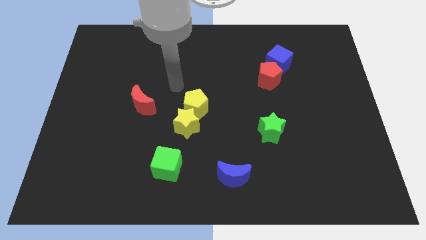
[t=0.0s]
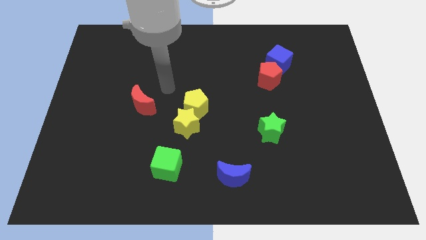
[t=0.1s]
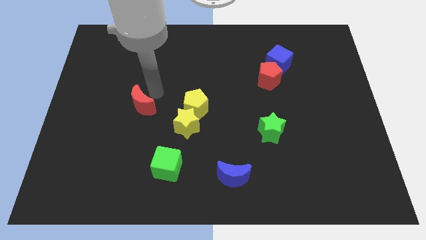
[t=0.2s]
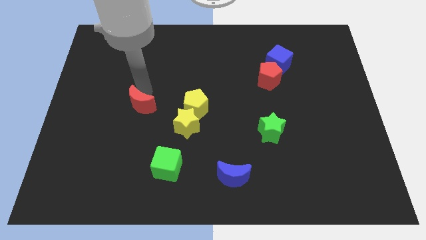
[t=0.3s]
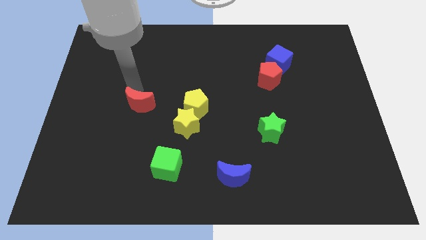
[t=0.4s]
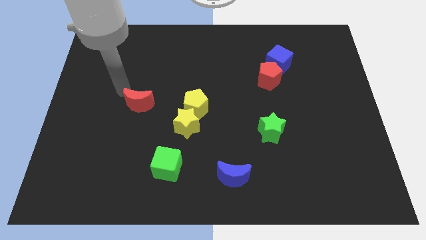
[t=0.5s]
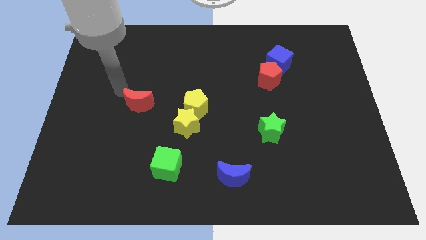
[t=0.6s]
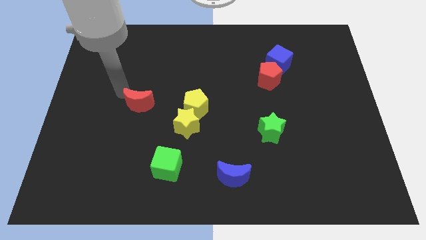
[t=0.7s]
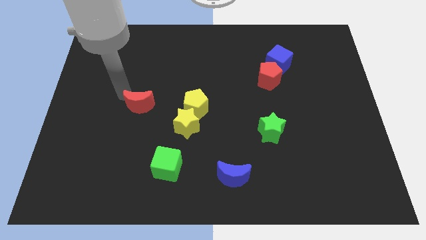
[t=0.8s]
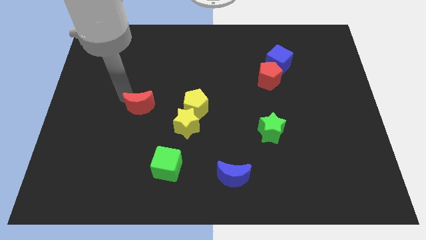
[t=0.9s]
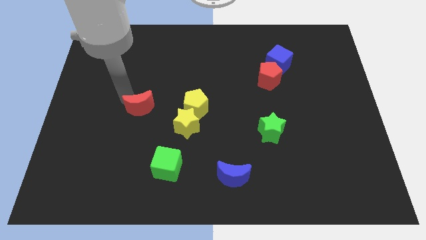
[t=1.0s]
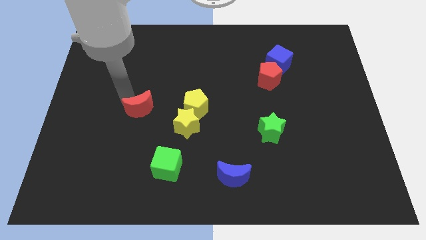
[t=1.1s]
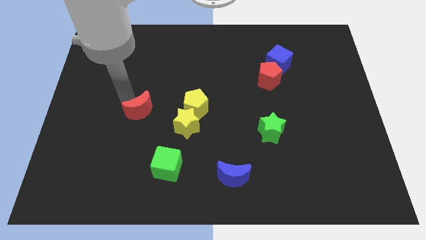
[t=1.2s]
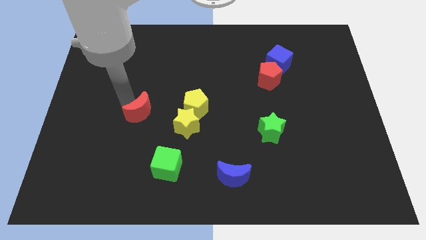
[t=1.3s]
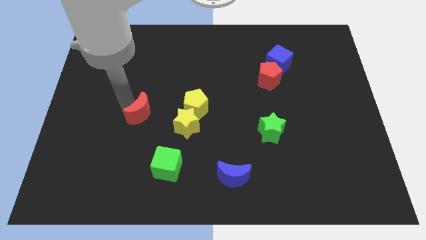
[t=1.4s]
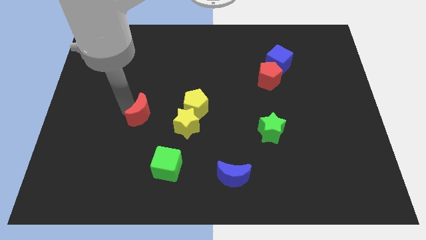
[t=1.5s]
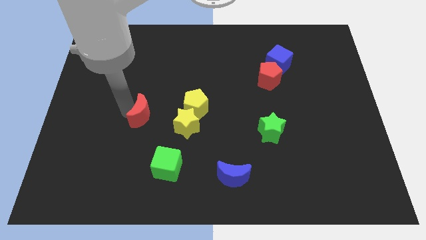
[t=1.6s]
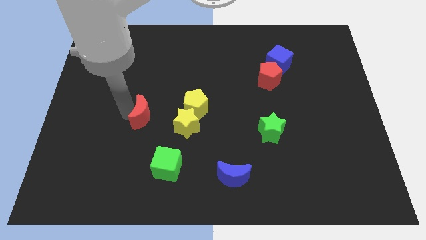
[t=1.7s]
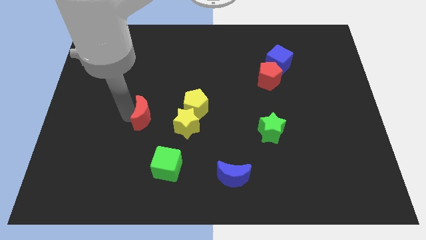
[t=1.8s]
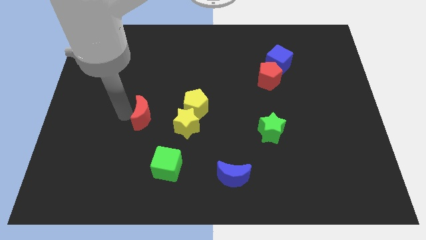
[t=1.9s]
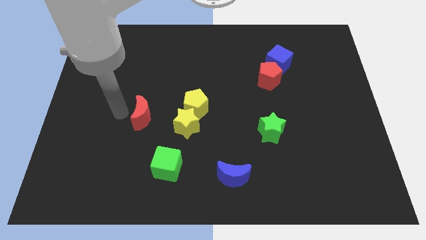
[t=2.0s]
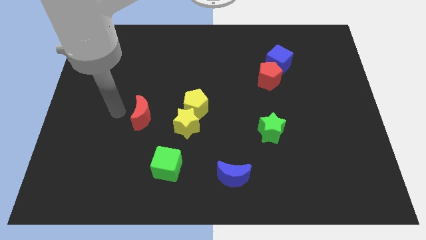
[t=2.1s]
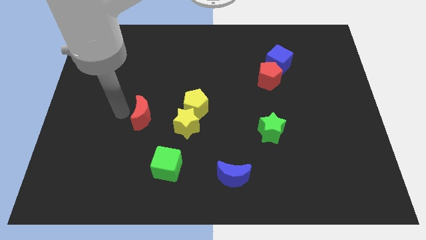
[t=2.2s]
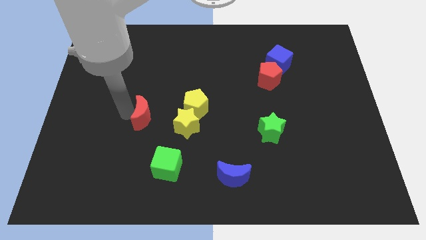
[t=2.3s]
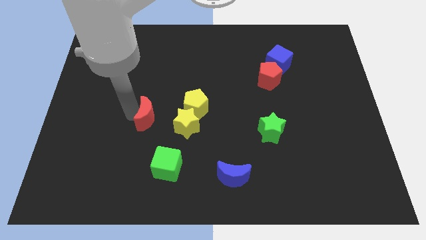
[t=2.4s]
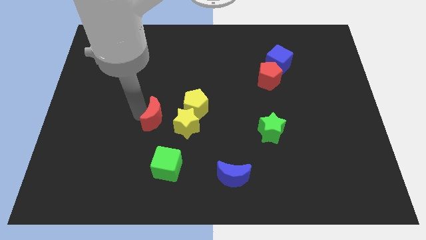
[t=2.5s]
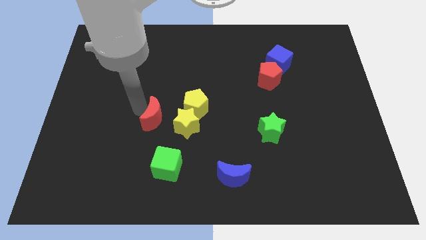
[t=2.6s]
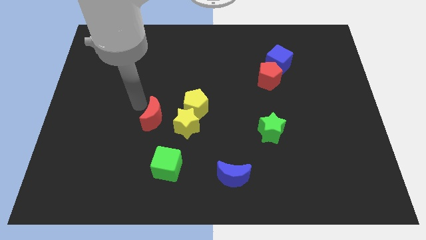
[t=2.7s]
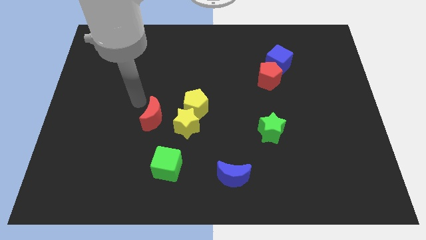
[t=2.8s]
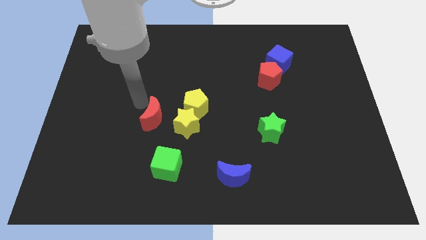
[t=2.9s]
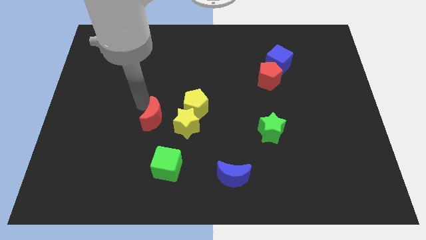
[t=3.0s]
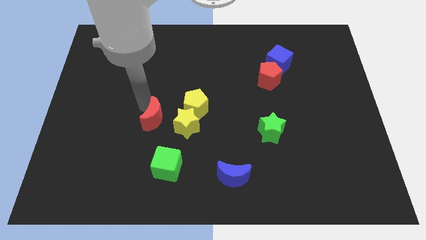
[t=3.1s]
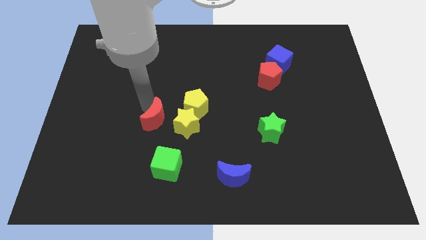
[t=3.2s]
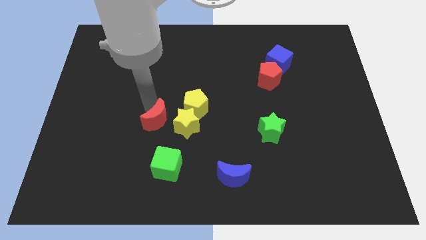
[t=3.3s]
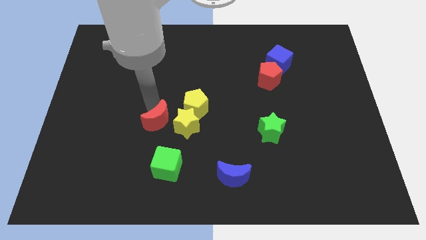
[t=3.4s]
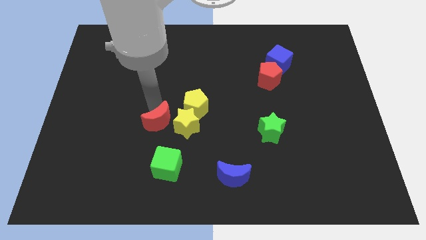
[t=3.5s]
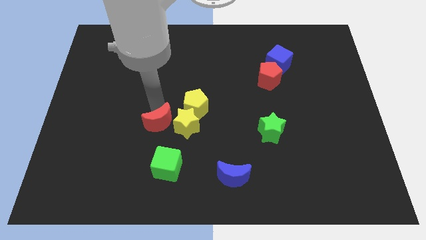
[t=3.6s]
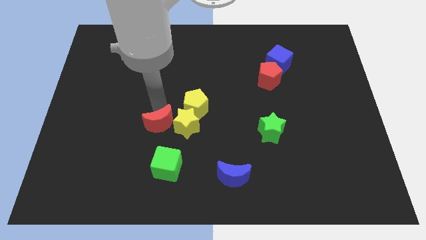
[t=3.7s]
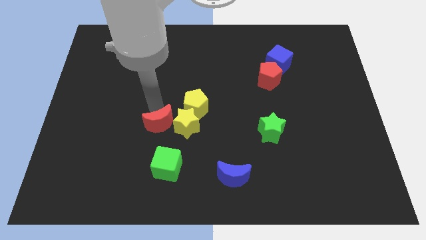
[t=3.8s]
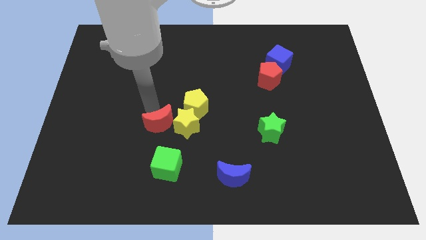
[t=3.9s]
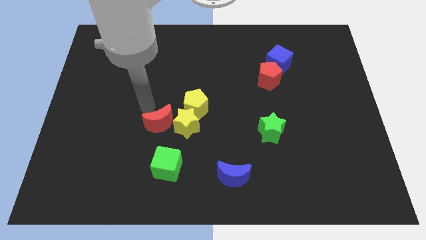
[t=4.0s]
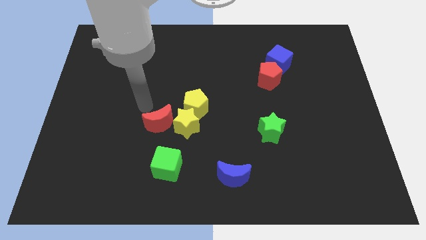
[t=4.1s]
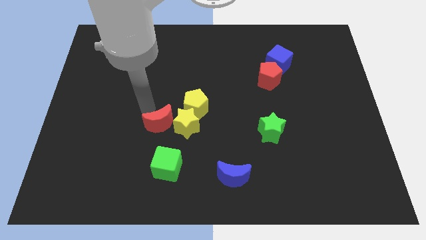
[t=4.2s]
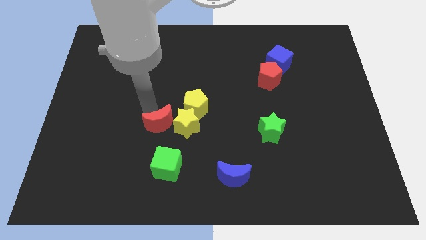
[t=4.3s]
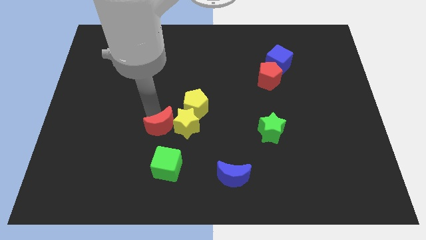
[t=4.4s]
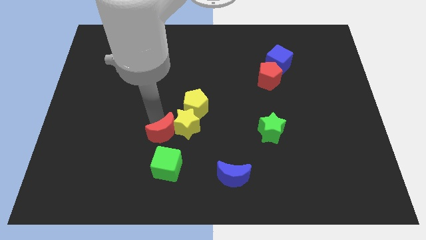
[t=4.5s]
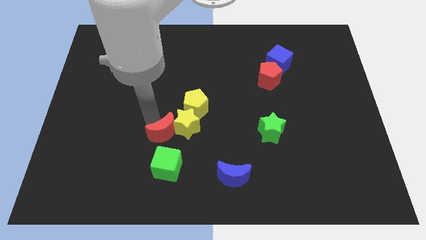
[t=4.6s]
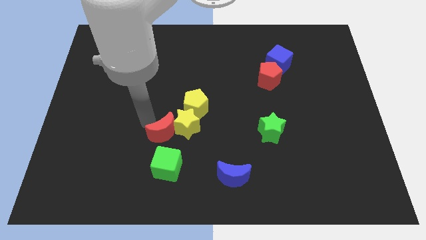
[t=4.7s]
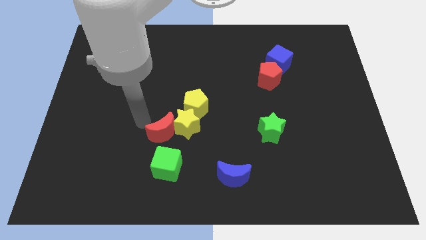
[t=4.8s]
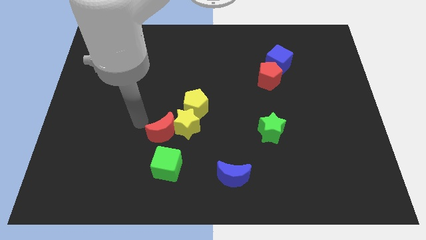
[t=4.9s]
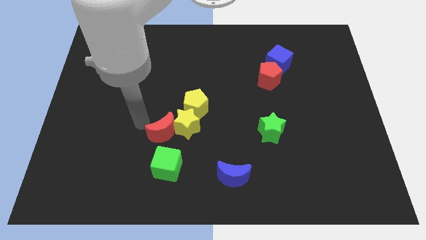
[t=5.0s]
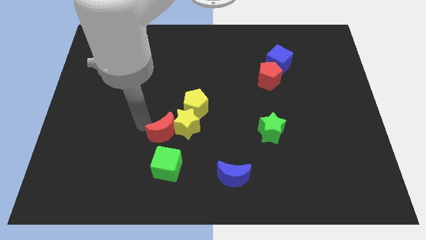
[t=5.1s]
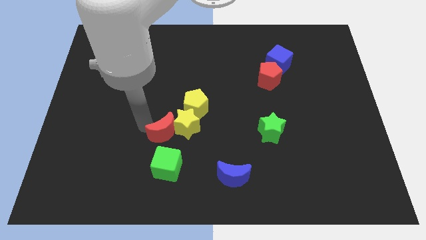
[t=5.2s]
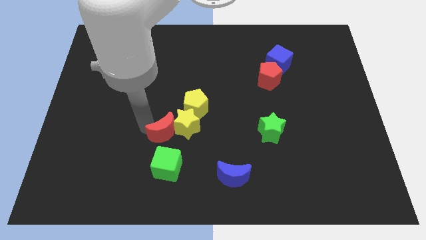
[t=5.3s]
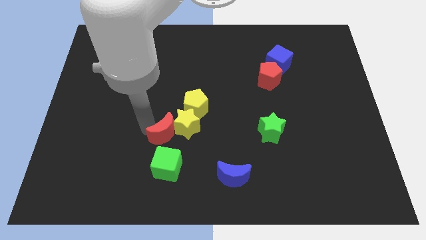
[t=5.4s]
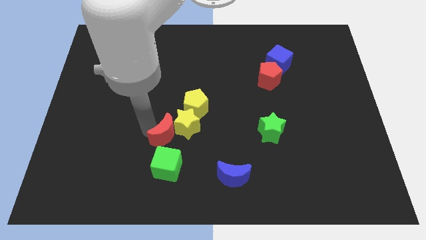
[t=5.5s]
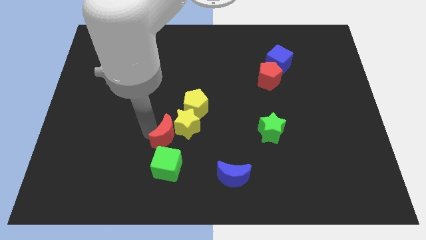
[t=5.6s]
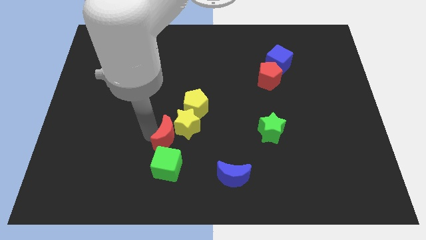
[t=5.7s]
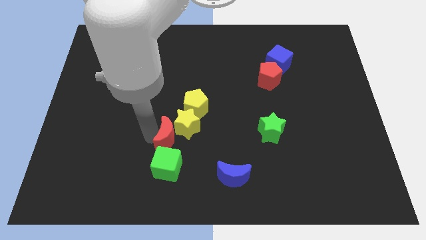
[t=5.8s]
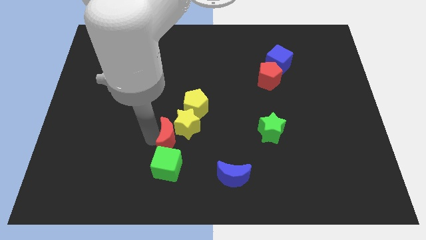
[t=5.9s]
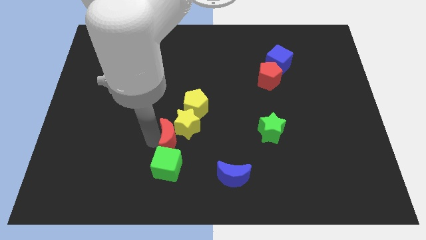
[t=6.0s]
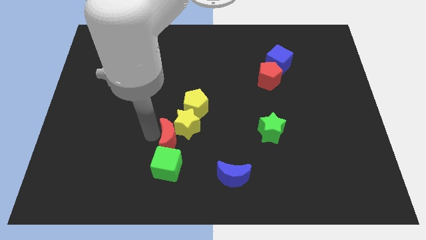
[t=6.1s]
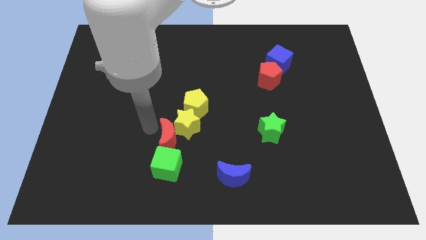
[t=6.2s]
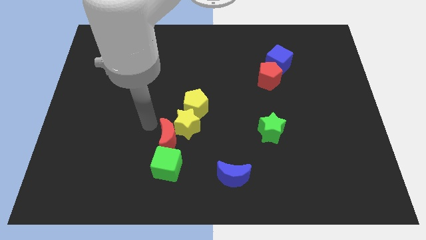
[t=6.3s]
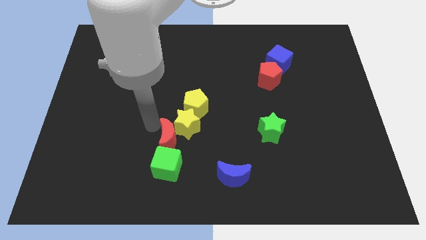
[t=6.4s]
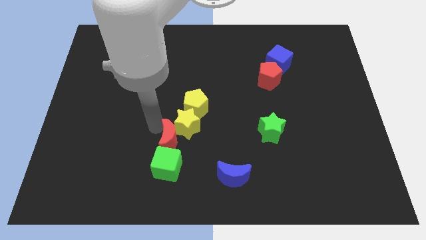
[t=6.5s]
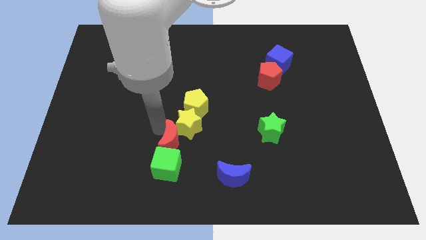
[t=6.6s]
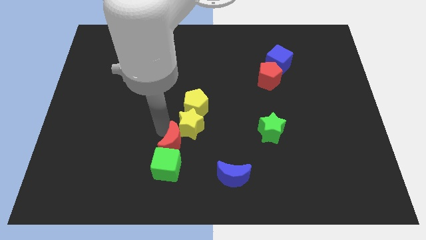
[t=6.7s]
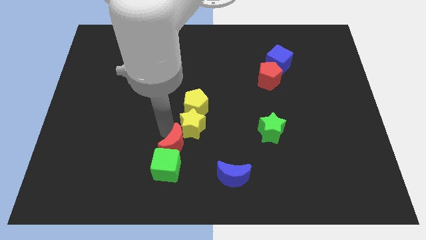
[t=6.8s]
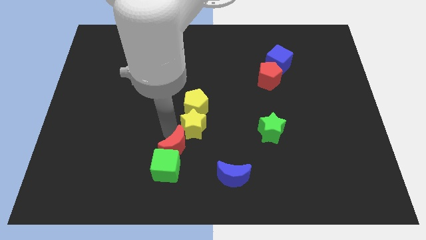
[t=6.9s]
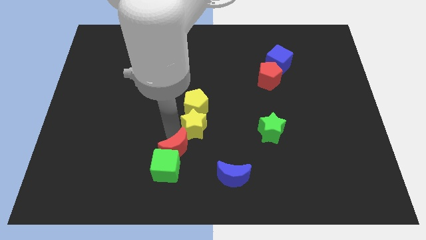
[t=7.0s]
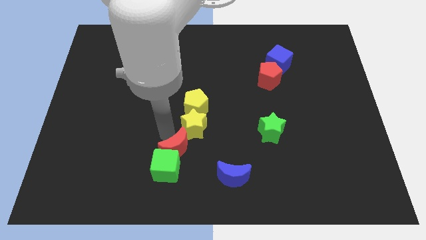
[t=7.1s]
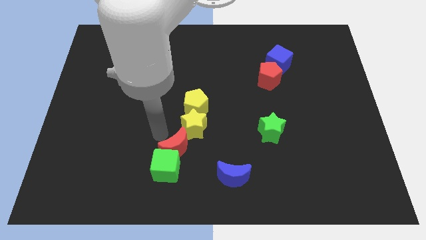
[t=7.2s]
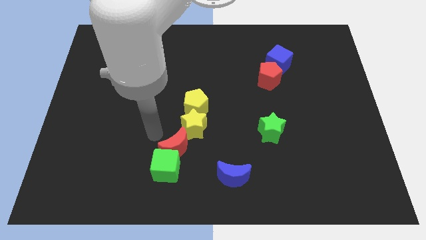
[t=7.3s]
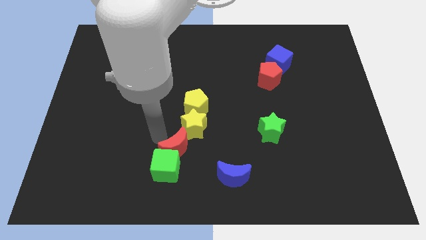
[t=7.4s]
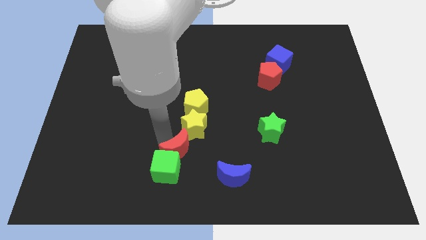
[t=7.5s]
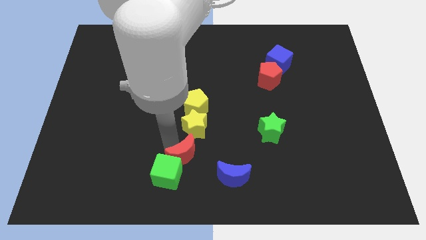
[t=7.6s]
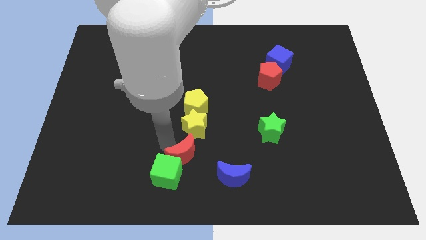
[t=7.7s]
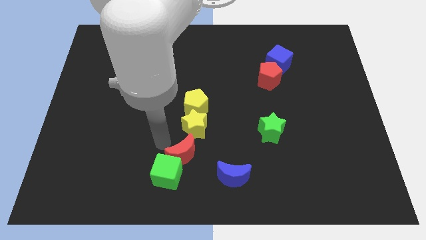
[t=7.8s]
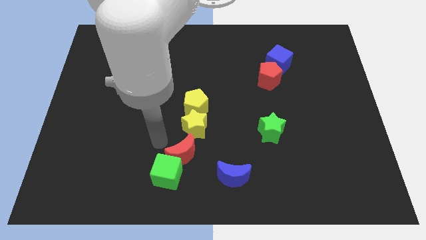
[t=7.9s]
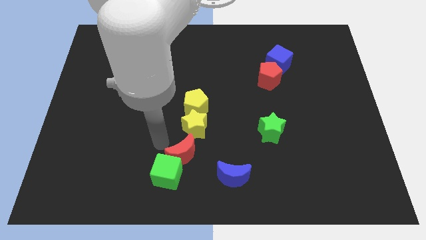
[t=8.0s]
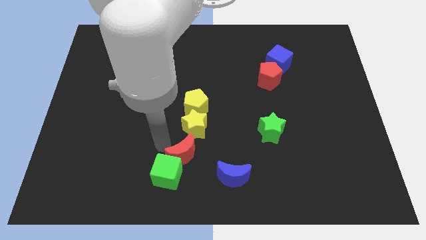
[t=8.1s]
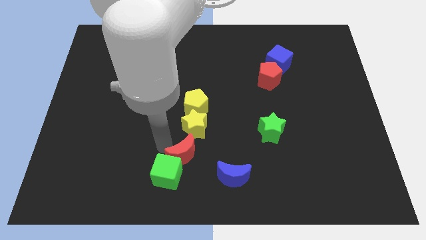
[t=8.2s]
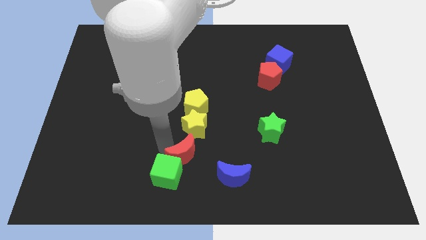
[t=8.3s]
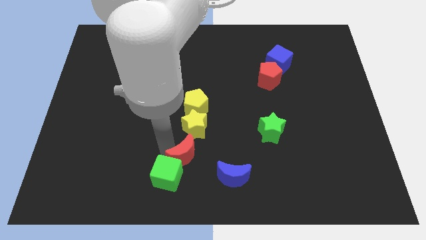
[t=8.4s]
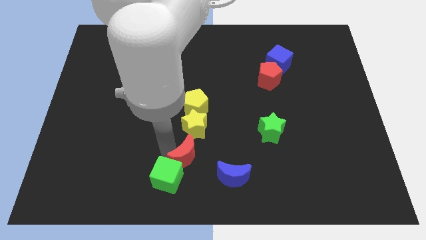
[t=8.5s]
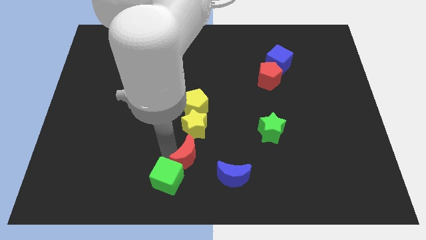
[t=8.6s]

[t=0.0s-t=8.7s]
push the red moon to the bottom side
